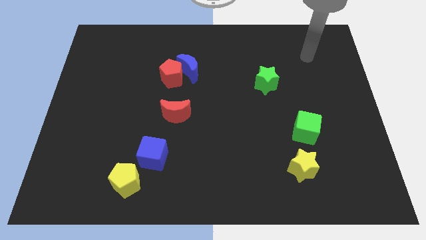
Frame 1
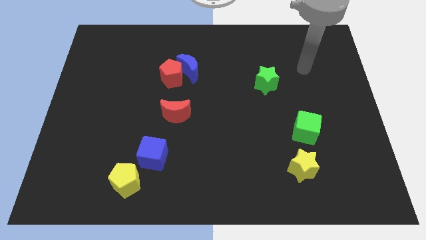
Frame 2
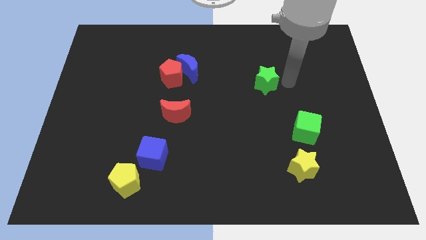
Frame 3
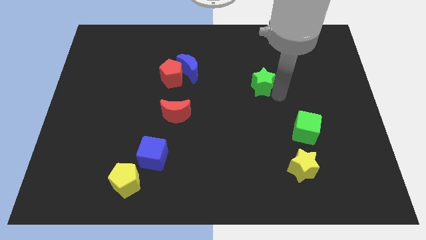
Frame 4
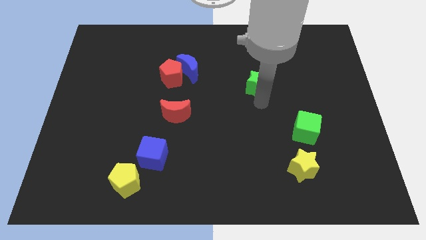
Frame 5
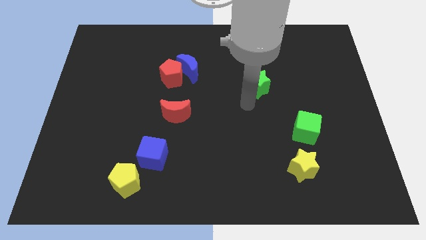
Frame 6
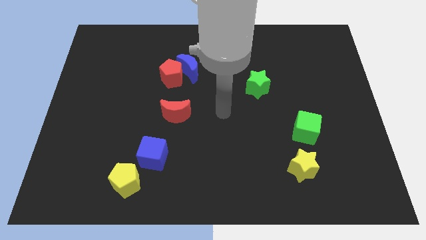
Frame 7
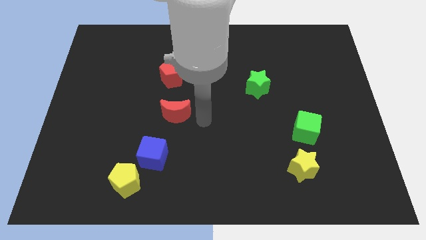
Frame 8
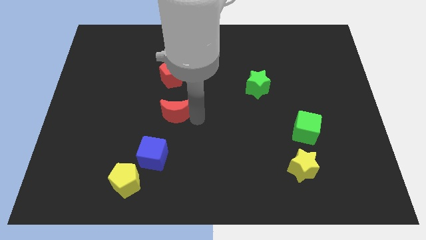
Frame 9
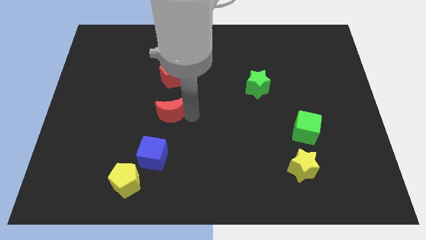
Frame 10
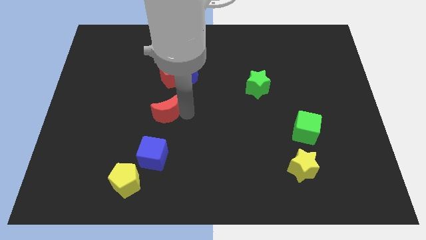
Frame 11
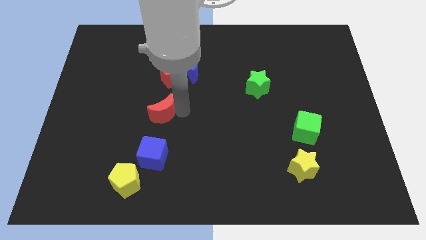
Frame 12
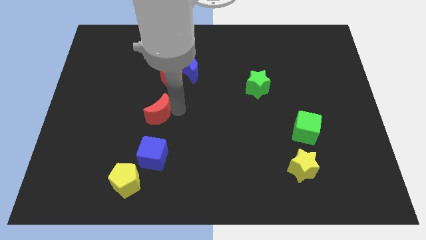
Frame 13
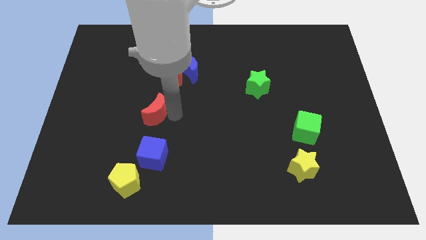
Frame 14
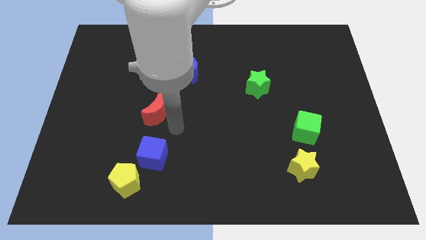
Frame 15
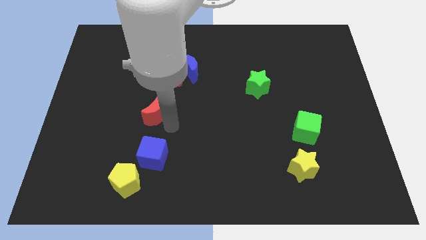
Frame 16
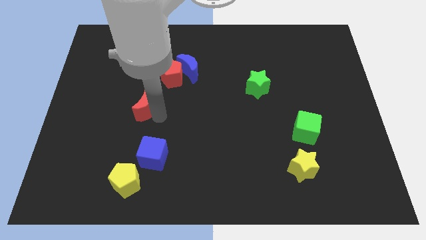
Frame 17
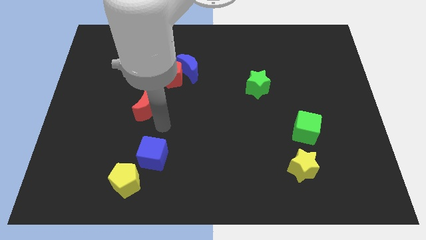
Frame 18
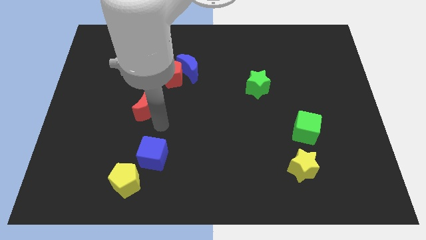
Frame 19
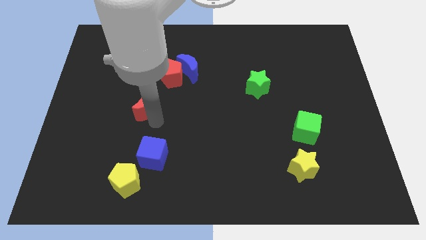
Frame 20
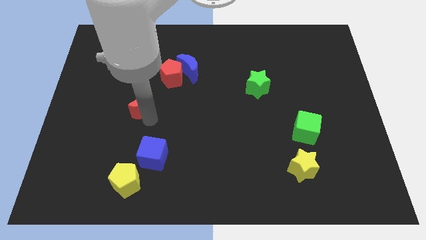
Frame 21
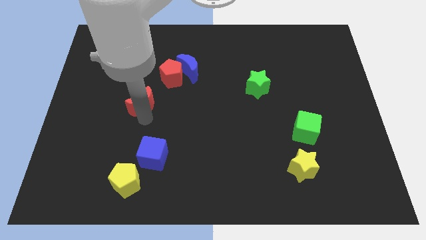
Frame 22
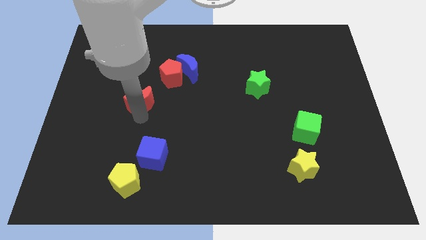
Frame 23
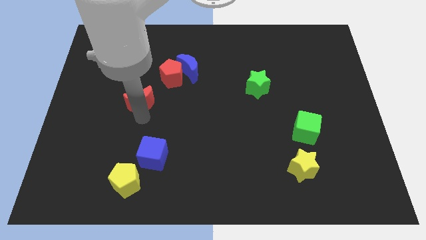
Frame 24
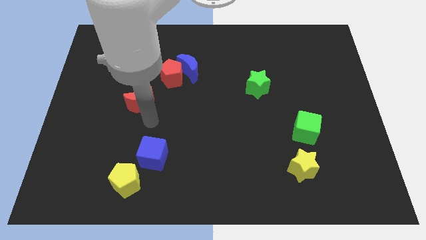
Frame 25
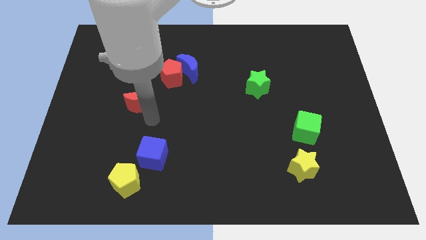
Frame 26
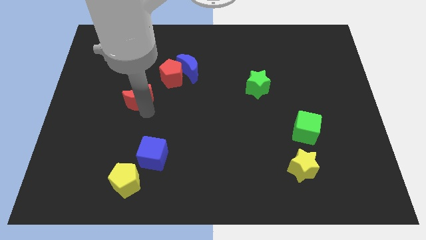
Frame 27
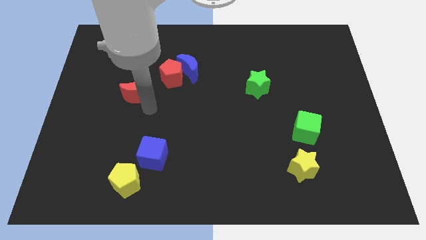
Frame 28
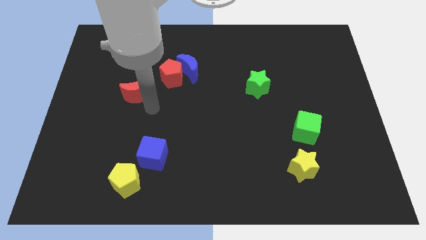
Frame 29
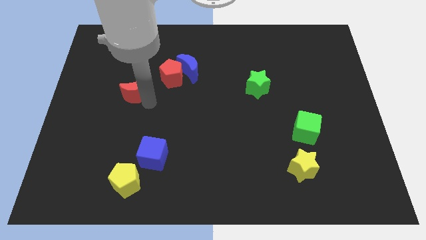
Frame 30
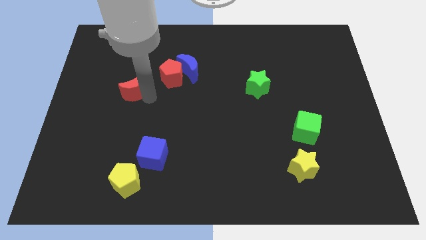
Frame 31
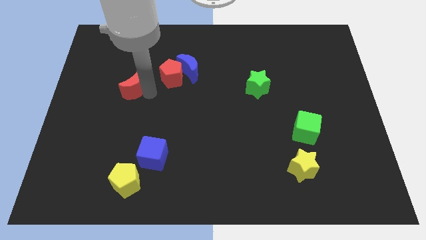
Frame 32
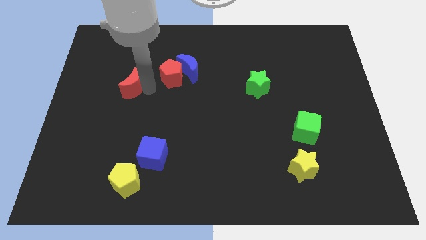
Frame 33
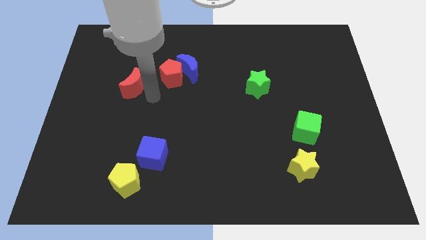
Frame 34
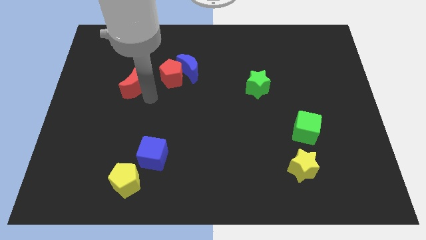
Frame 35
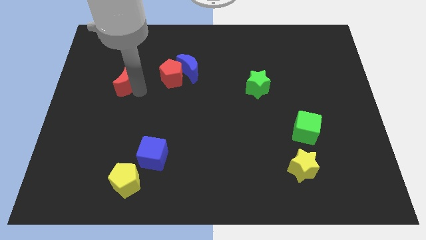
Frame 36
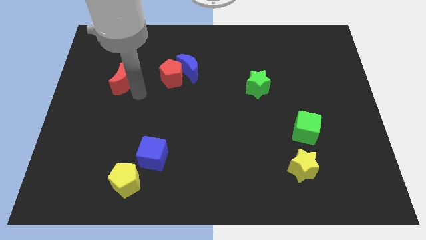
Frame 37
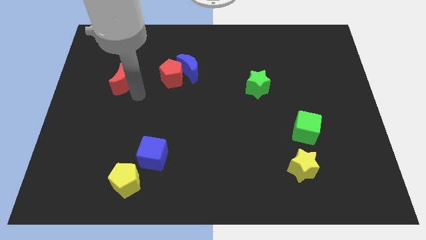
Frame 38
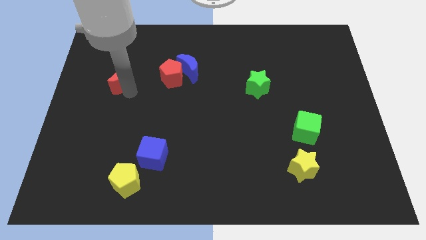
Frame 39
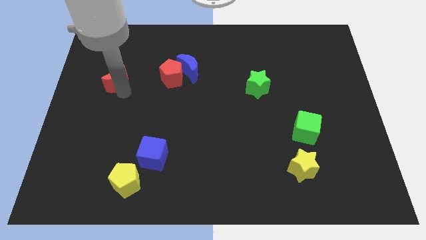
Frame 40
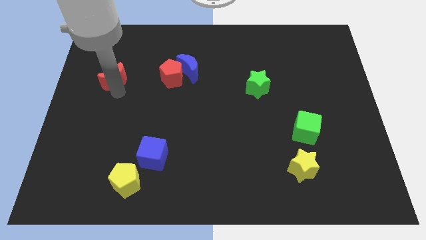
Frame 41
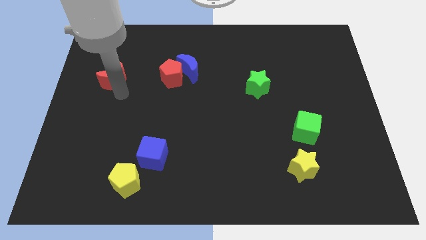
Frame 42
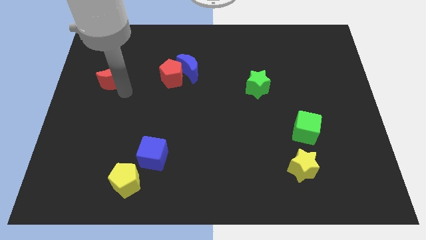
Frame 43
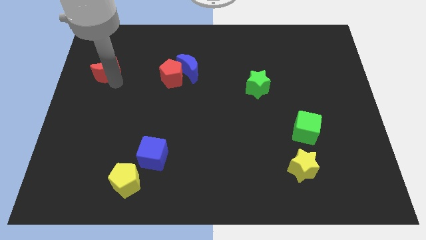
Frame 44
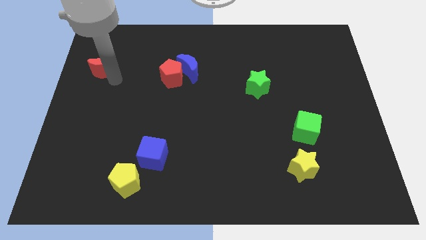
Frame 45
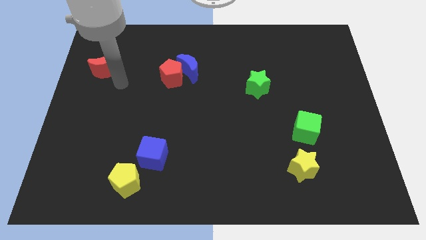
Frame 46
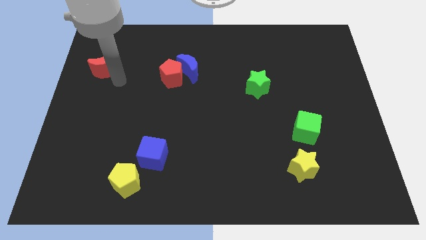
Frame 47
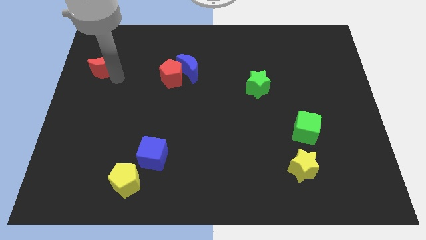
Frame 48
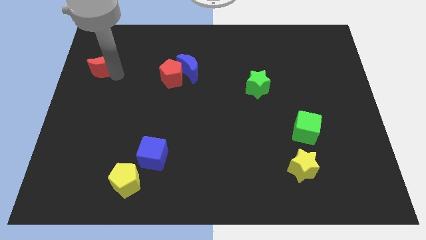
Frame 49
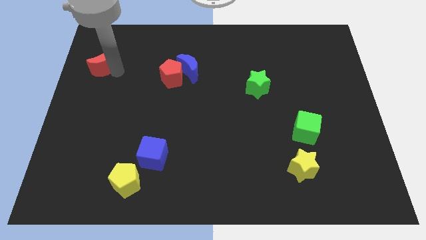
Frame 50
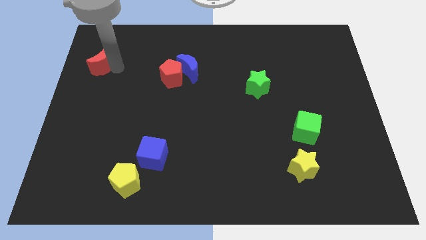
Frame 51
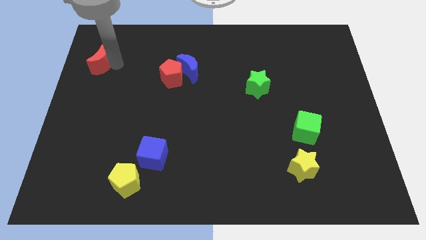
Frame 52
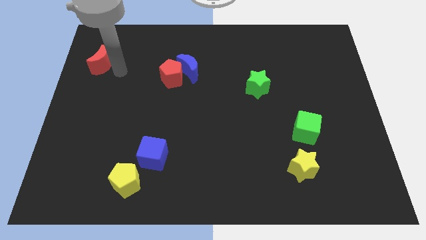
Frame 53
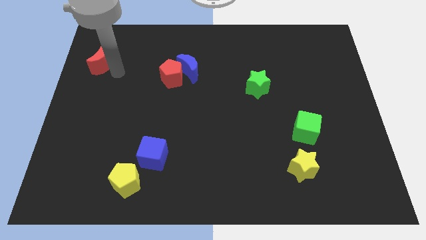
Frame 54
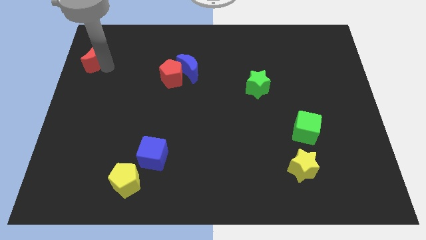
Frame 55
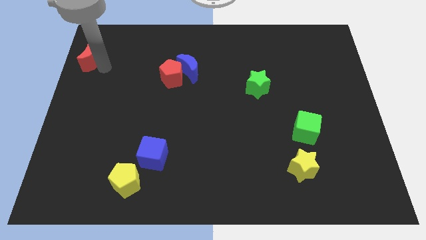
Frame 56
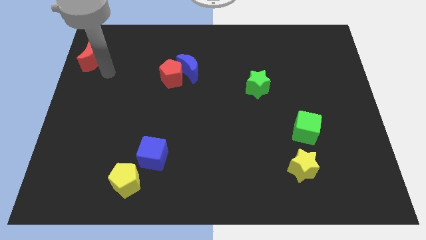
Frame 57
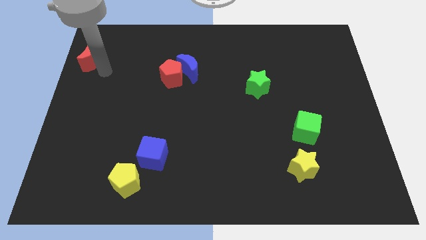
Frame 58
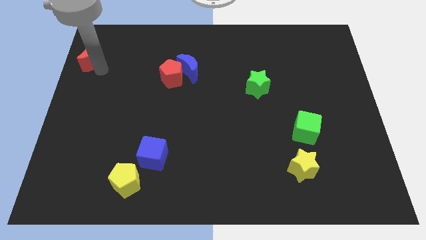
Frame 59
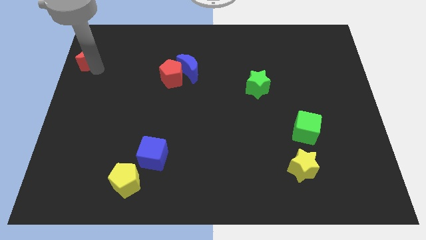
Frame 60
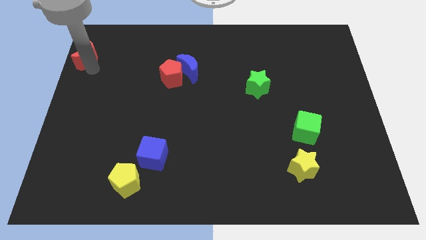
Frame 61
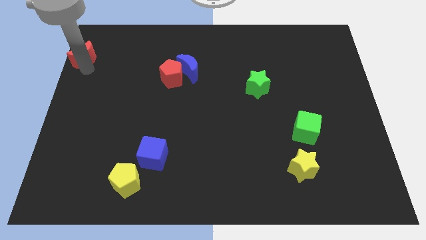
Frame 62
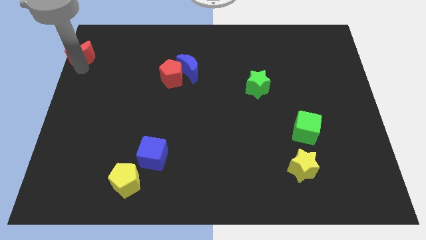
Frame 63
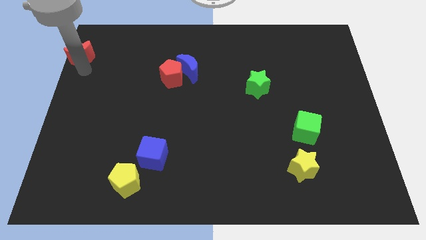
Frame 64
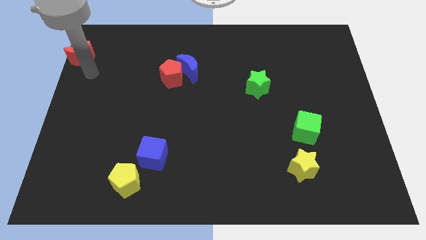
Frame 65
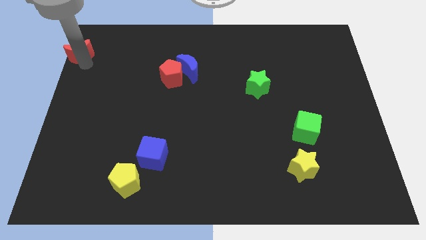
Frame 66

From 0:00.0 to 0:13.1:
push the red moon to the top left corner

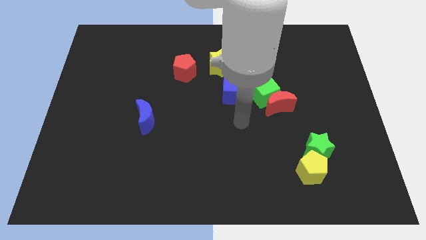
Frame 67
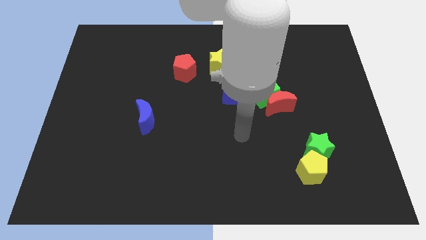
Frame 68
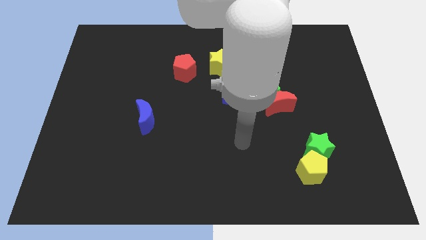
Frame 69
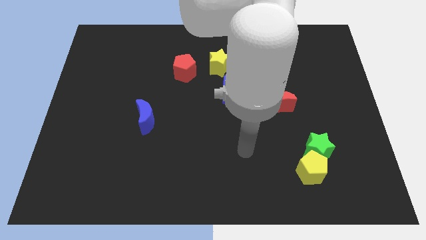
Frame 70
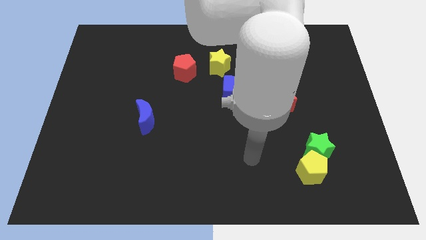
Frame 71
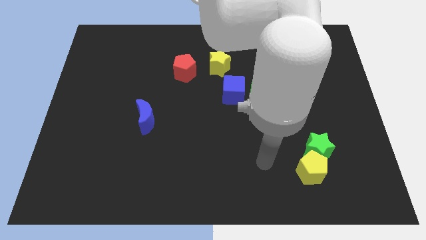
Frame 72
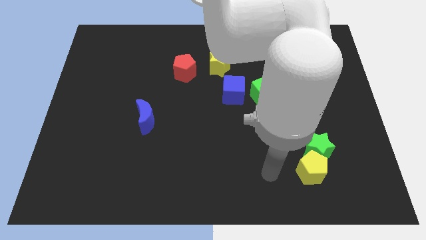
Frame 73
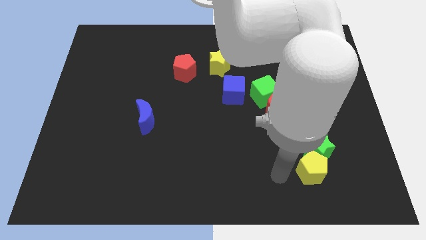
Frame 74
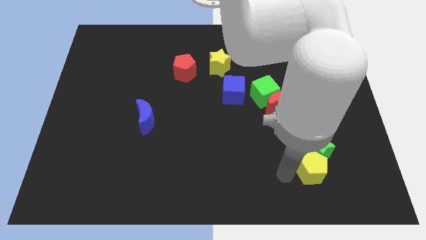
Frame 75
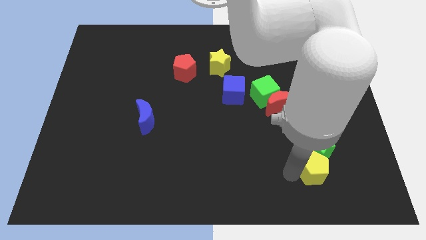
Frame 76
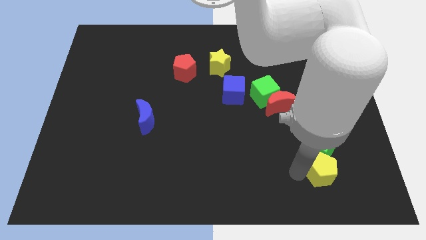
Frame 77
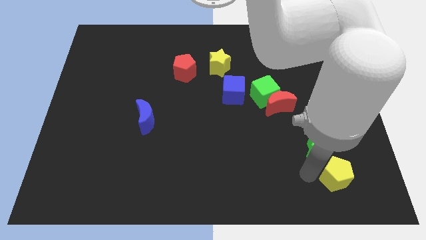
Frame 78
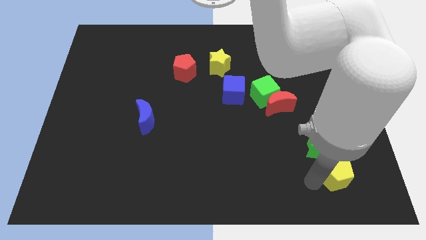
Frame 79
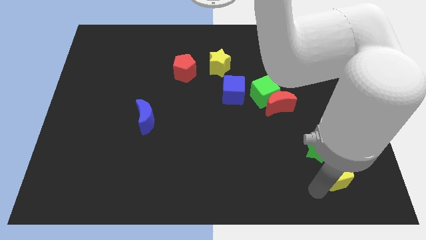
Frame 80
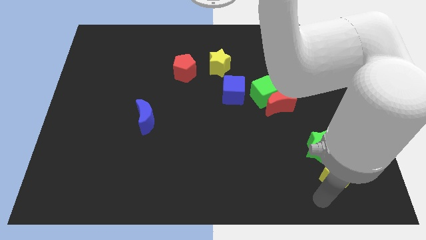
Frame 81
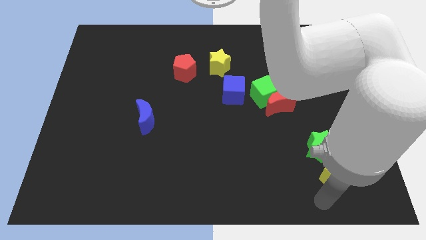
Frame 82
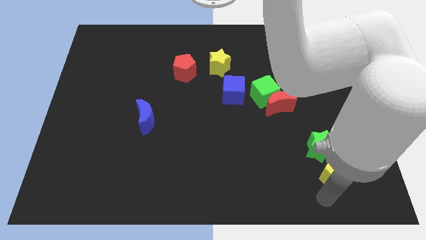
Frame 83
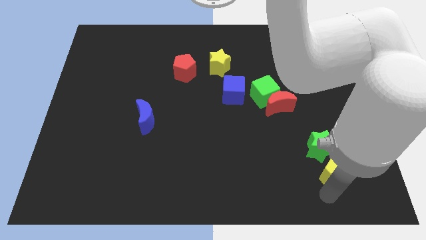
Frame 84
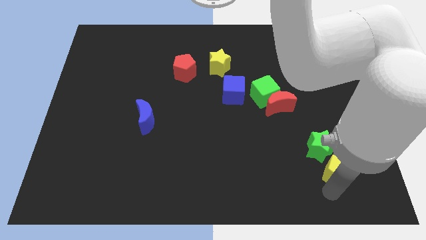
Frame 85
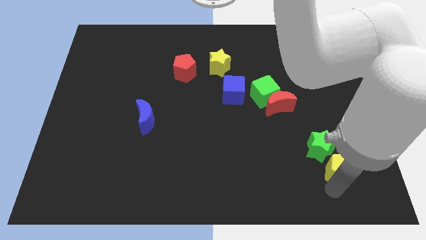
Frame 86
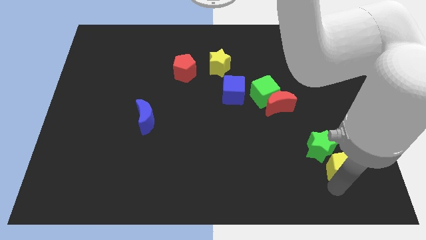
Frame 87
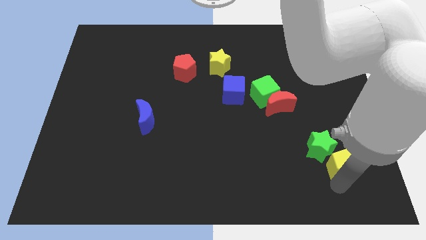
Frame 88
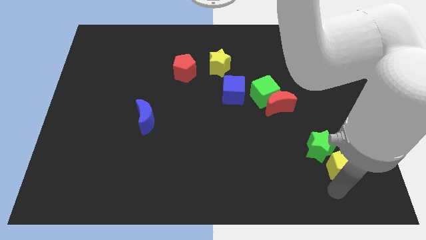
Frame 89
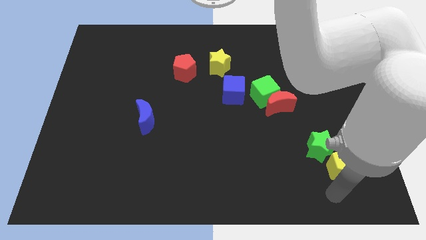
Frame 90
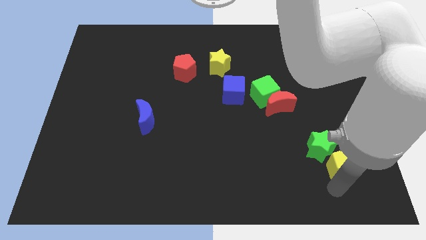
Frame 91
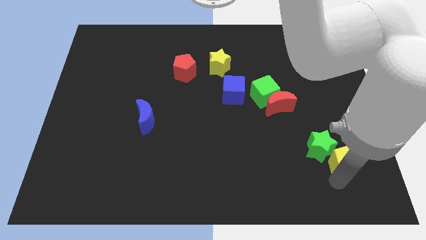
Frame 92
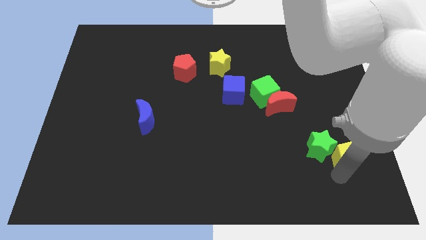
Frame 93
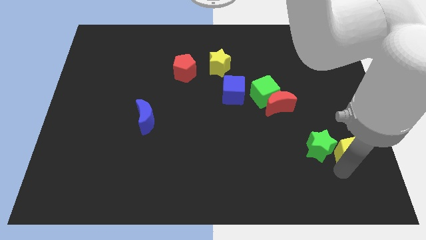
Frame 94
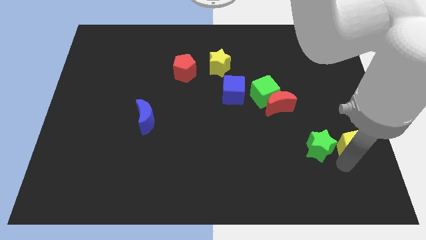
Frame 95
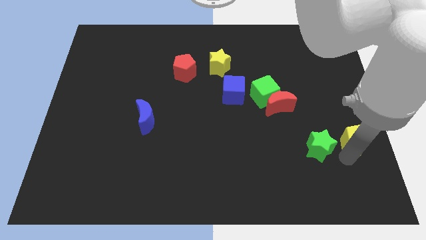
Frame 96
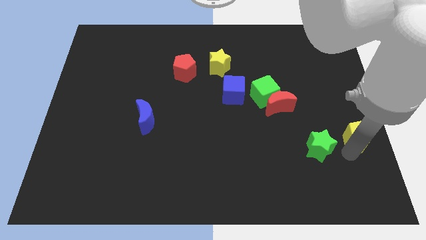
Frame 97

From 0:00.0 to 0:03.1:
slide the yellow pentagon to the center right
